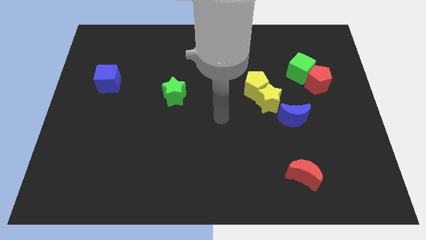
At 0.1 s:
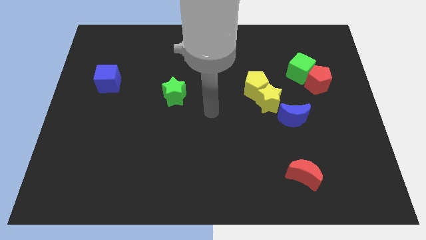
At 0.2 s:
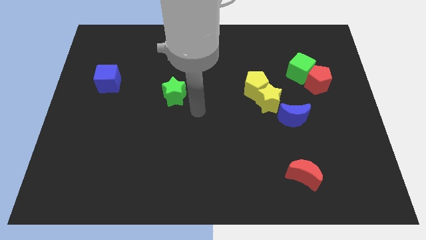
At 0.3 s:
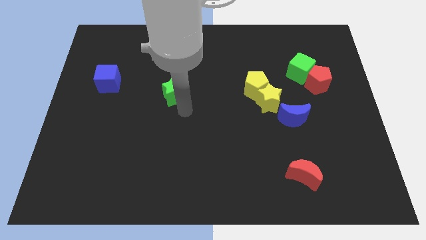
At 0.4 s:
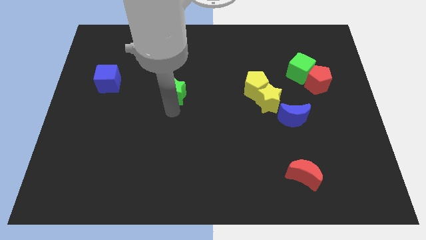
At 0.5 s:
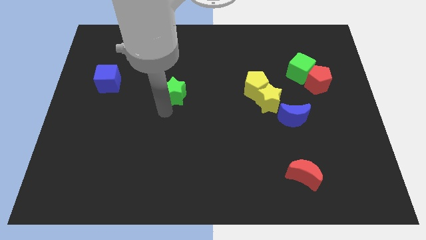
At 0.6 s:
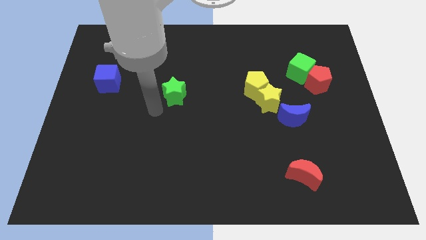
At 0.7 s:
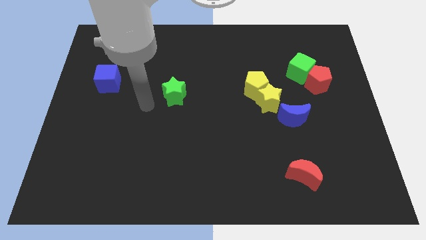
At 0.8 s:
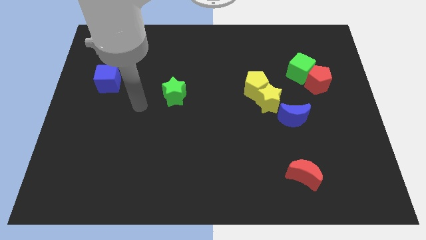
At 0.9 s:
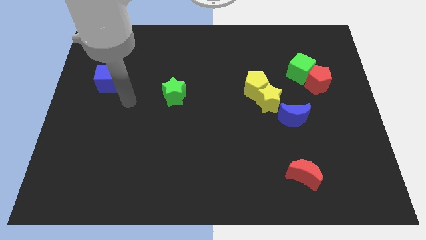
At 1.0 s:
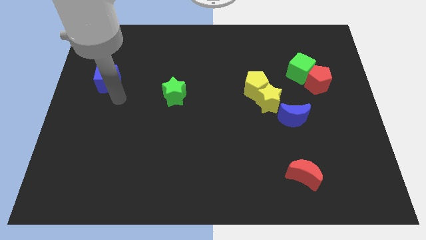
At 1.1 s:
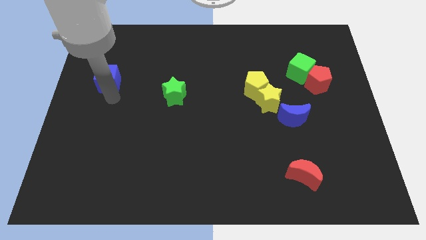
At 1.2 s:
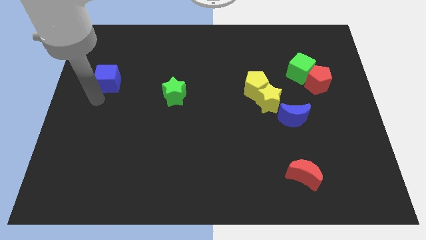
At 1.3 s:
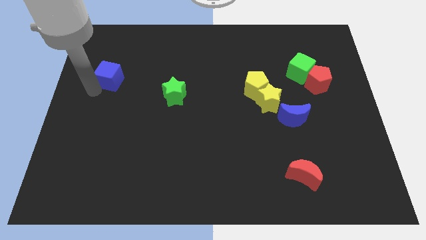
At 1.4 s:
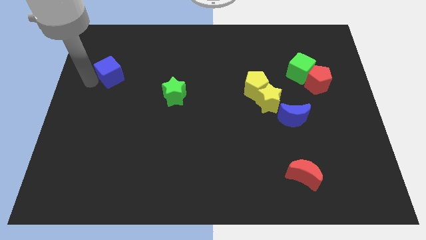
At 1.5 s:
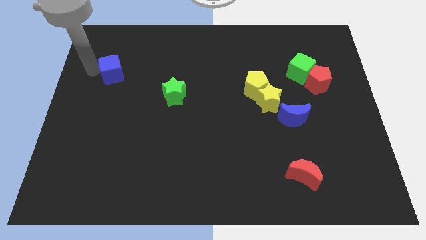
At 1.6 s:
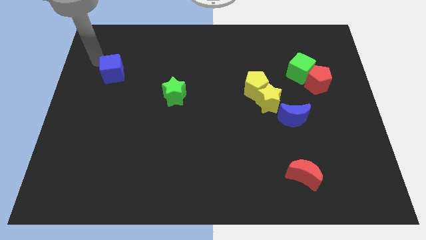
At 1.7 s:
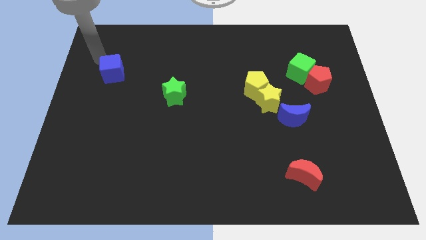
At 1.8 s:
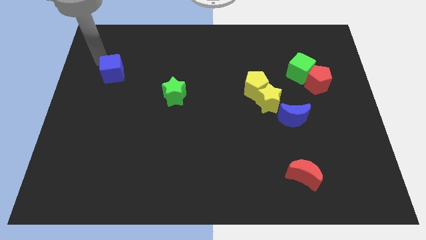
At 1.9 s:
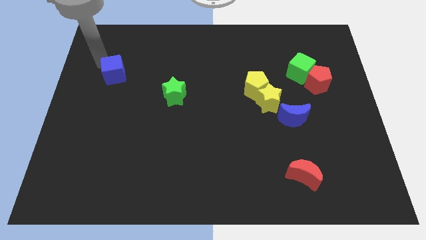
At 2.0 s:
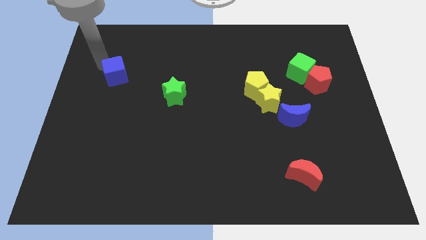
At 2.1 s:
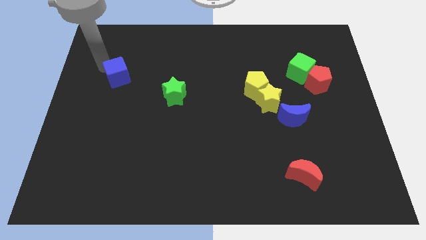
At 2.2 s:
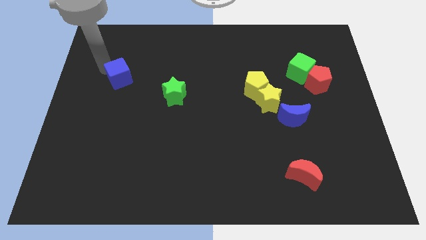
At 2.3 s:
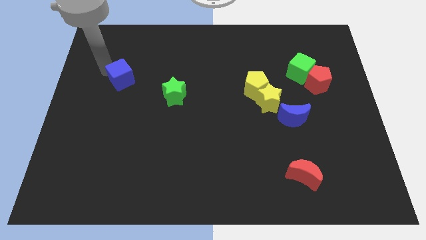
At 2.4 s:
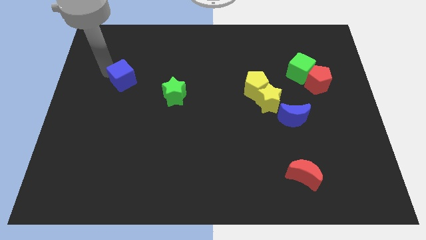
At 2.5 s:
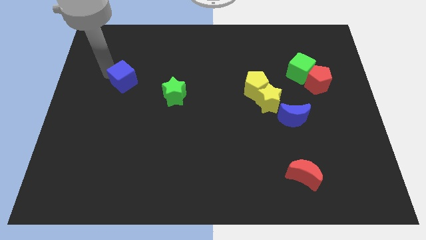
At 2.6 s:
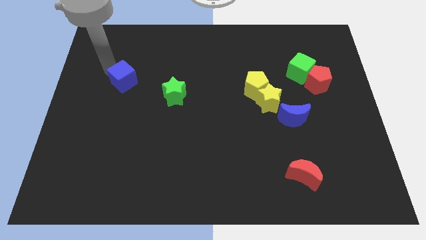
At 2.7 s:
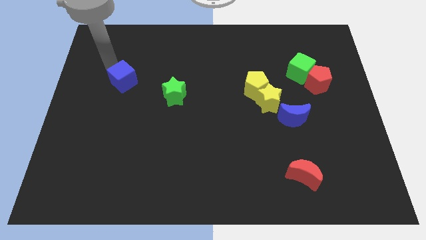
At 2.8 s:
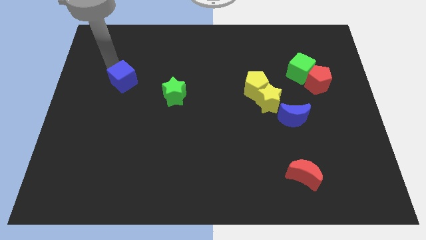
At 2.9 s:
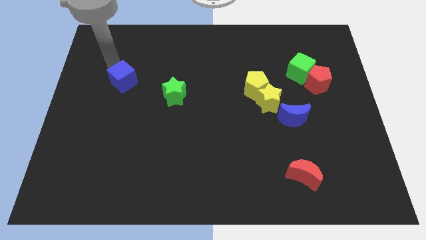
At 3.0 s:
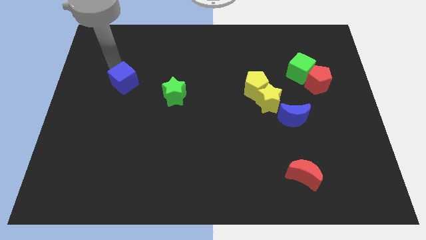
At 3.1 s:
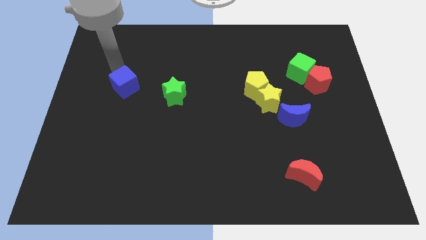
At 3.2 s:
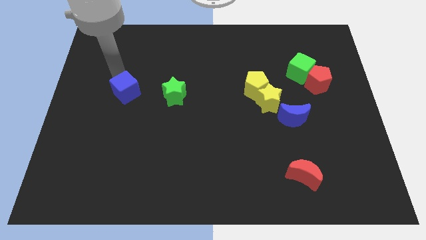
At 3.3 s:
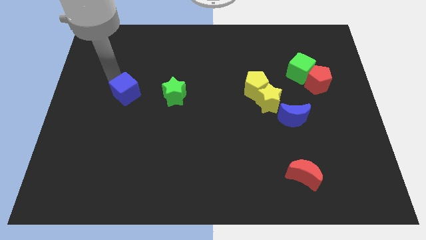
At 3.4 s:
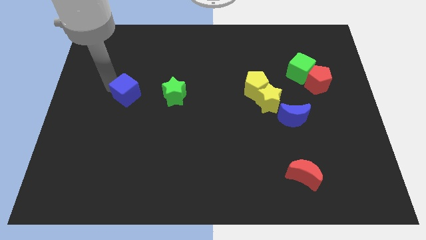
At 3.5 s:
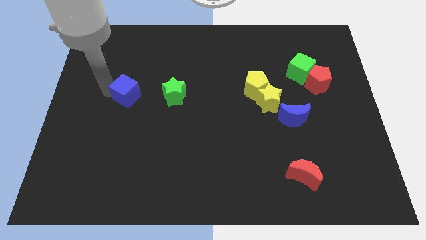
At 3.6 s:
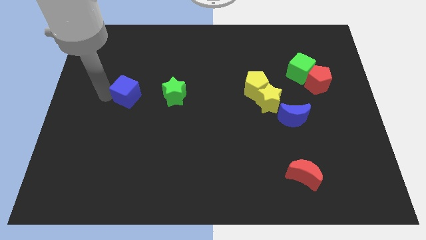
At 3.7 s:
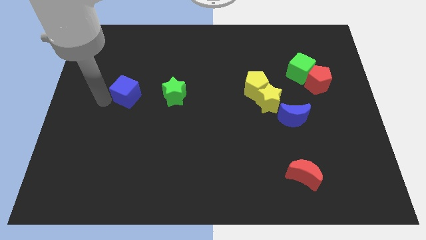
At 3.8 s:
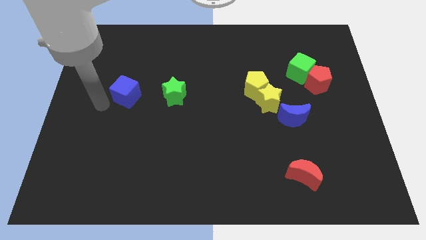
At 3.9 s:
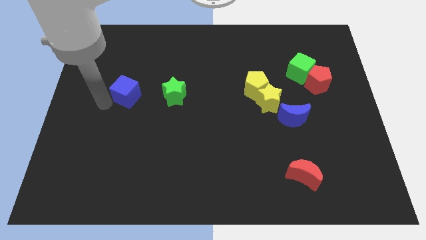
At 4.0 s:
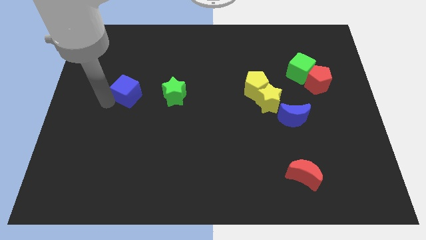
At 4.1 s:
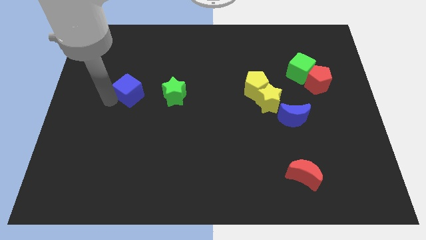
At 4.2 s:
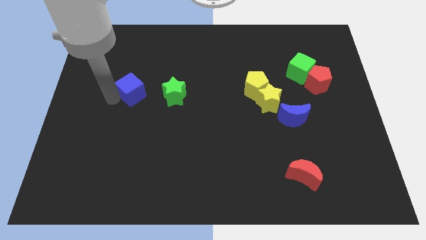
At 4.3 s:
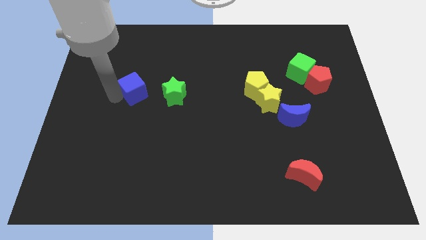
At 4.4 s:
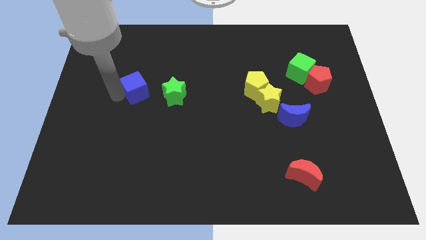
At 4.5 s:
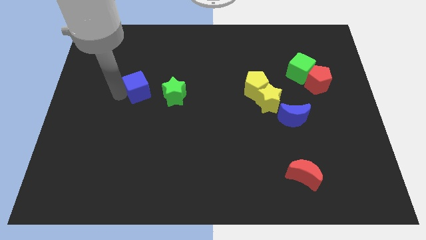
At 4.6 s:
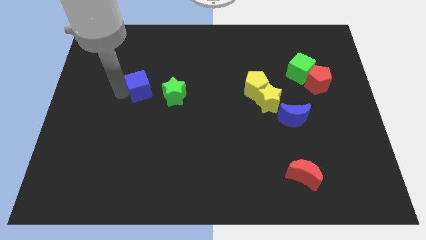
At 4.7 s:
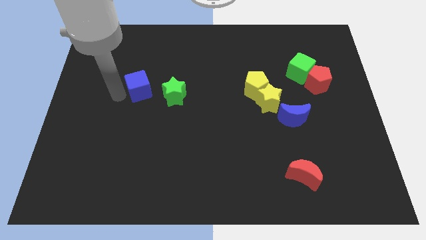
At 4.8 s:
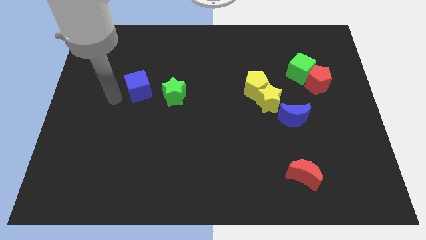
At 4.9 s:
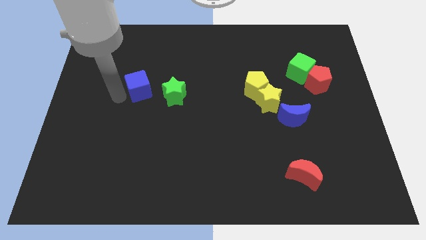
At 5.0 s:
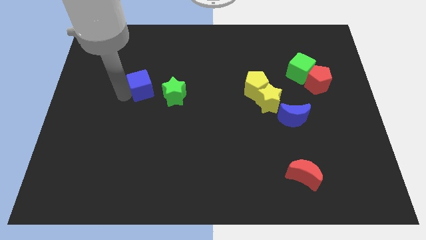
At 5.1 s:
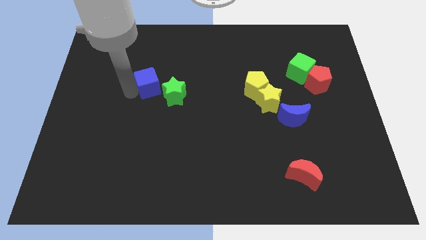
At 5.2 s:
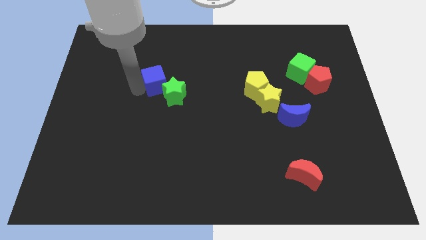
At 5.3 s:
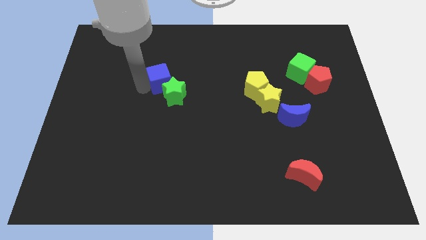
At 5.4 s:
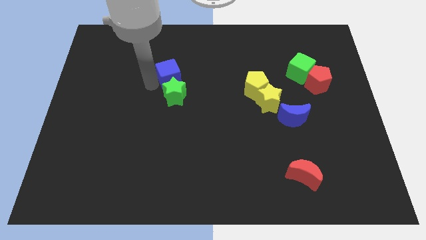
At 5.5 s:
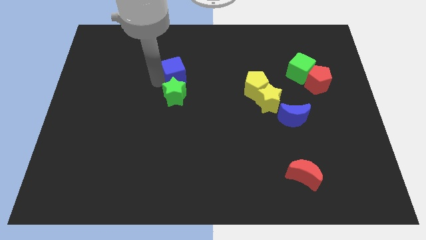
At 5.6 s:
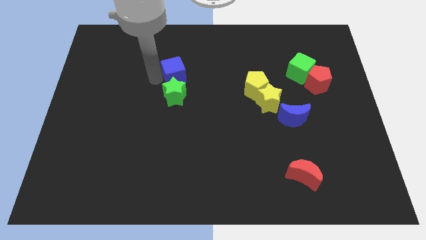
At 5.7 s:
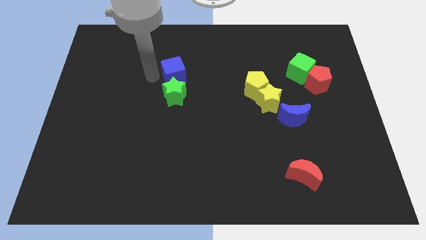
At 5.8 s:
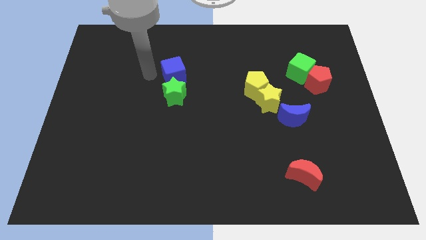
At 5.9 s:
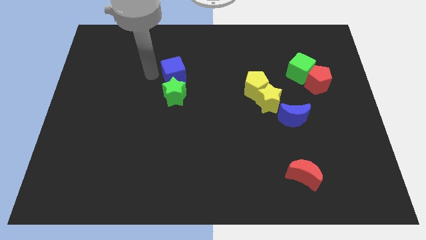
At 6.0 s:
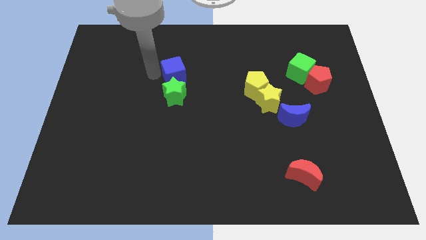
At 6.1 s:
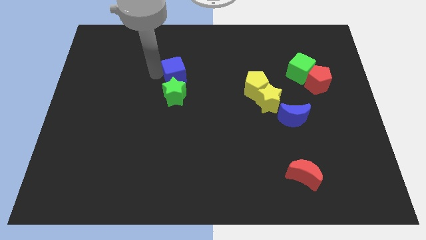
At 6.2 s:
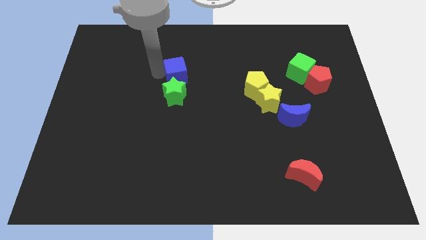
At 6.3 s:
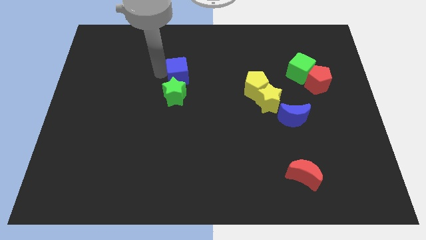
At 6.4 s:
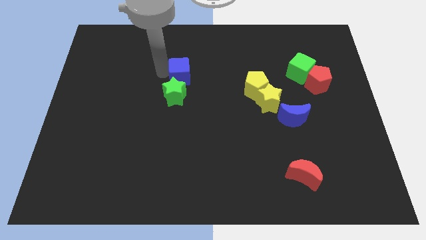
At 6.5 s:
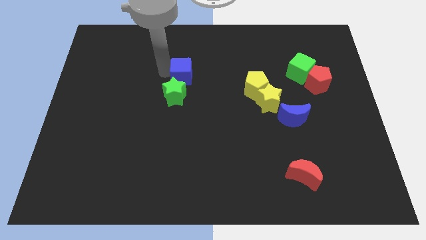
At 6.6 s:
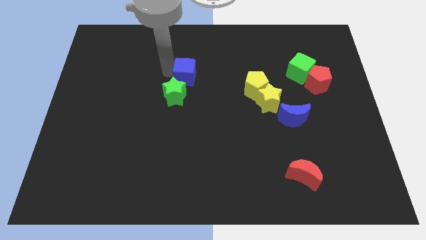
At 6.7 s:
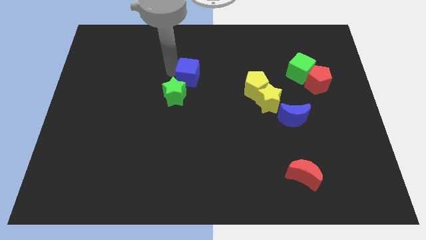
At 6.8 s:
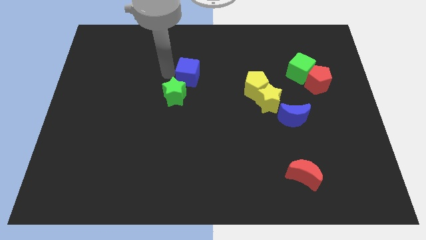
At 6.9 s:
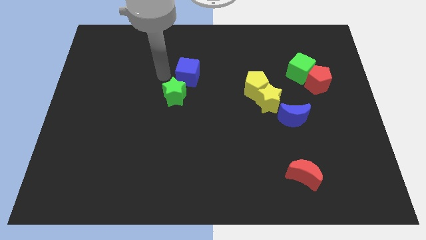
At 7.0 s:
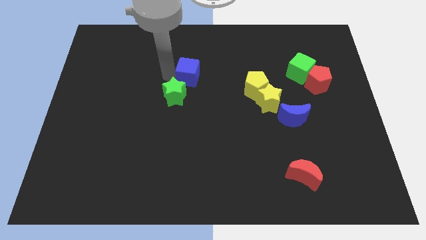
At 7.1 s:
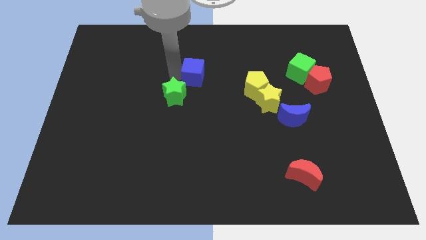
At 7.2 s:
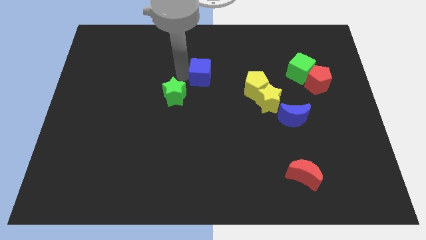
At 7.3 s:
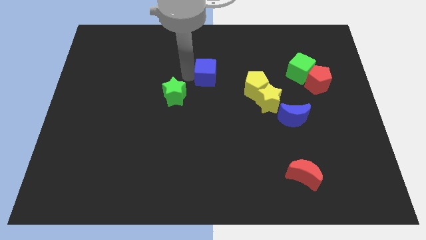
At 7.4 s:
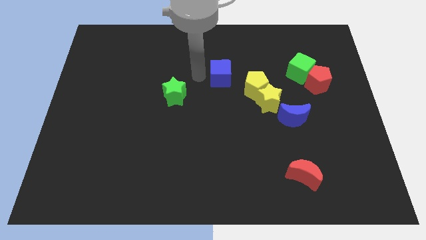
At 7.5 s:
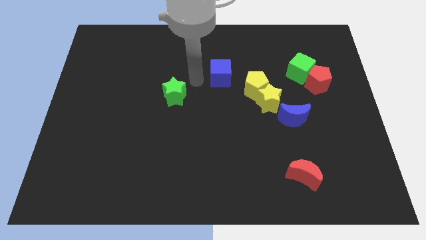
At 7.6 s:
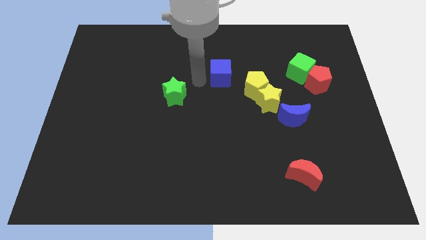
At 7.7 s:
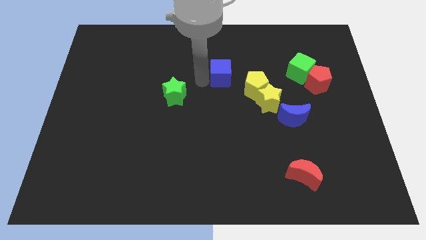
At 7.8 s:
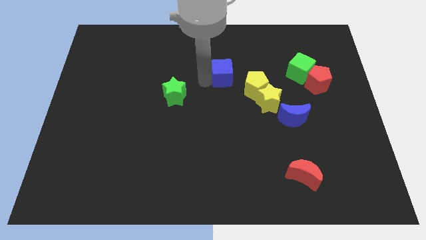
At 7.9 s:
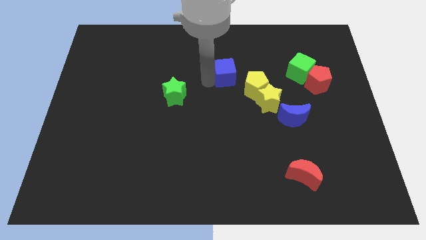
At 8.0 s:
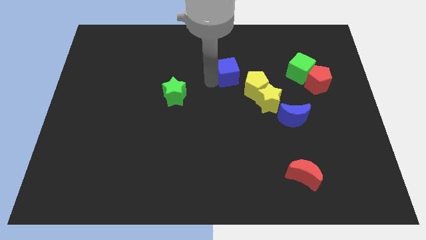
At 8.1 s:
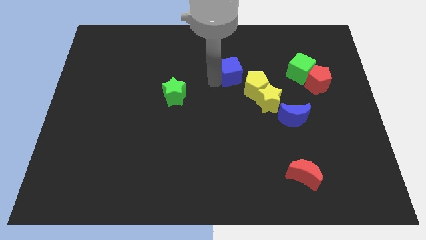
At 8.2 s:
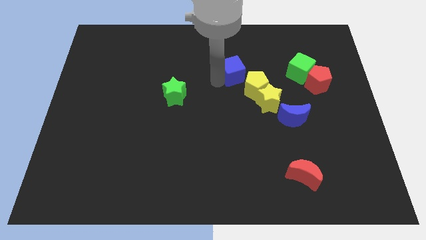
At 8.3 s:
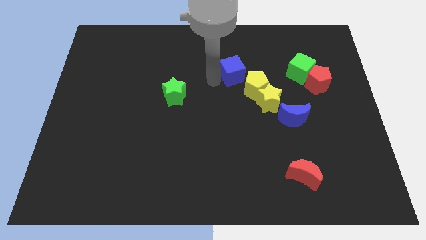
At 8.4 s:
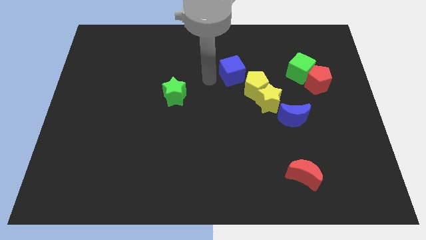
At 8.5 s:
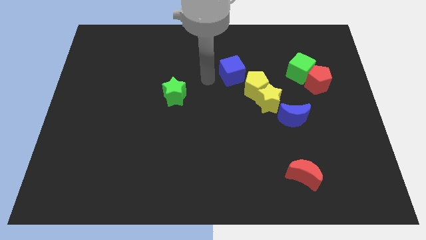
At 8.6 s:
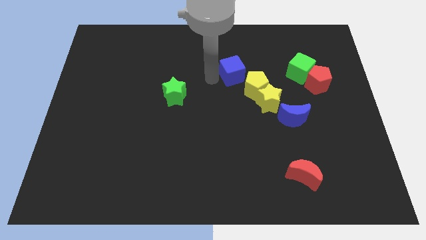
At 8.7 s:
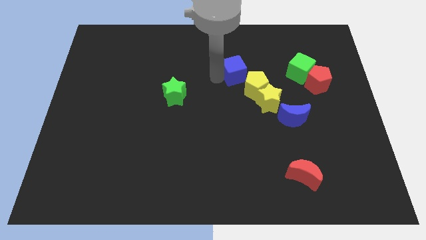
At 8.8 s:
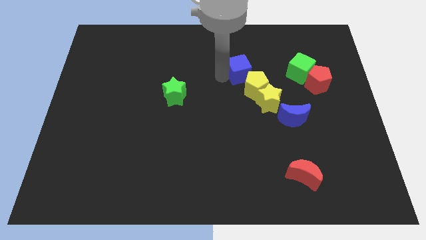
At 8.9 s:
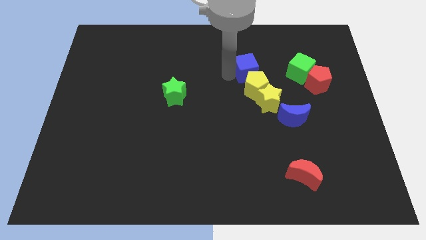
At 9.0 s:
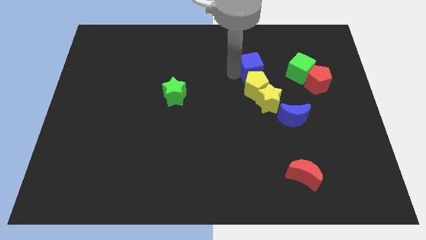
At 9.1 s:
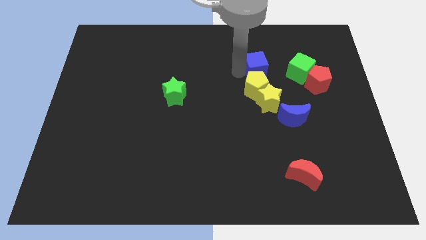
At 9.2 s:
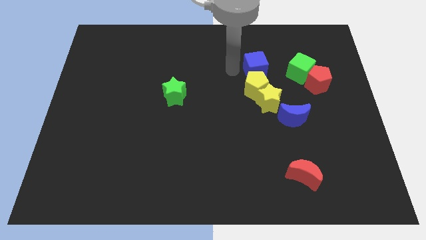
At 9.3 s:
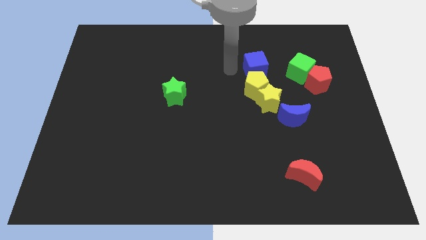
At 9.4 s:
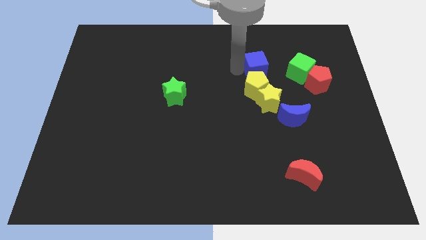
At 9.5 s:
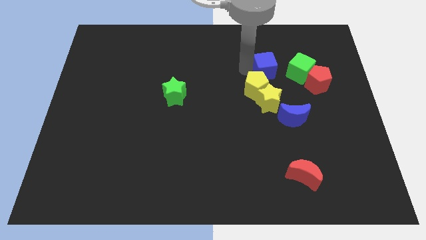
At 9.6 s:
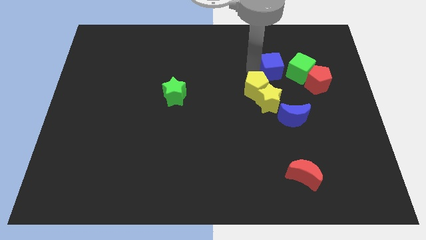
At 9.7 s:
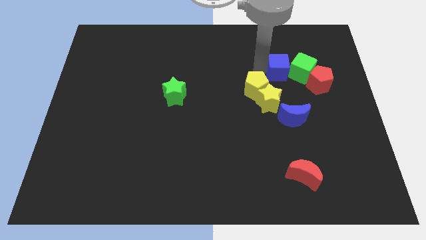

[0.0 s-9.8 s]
move the blue cube diagonally up and to the left of the red pentagon
